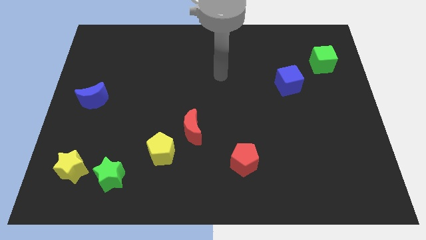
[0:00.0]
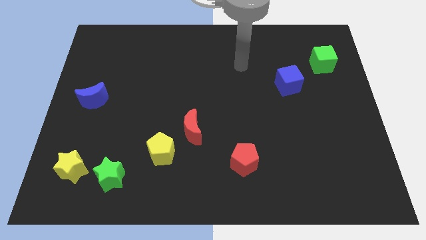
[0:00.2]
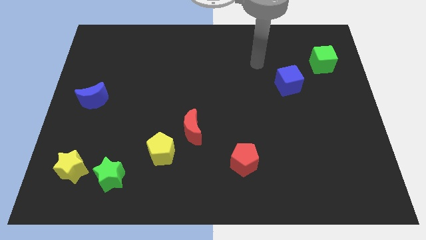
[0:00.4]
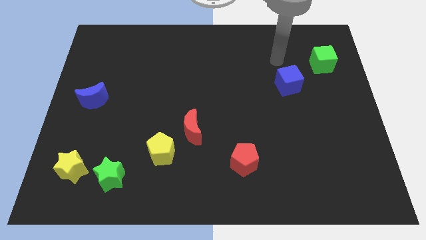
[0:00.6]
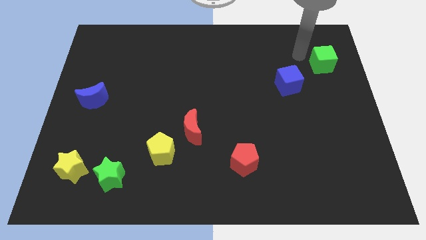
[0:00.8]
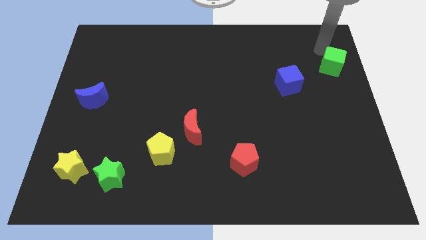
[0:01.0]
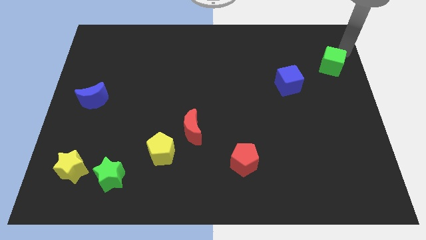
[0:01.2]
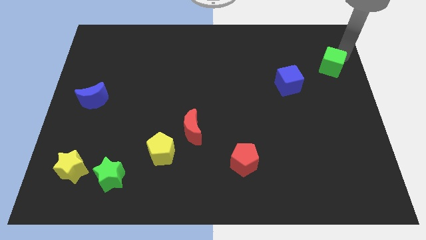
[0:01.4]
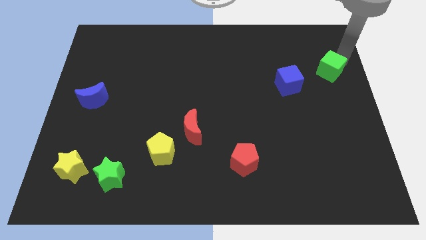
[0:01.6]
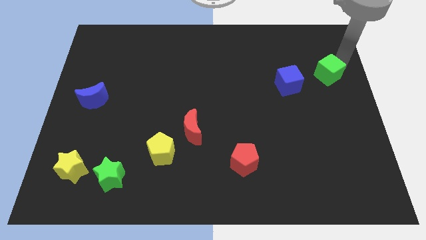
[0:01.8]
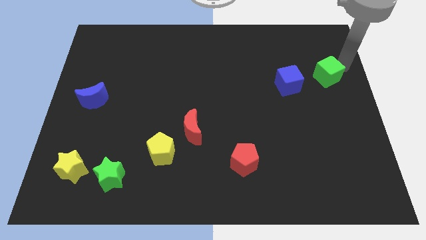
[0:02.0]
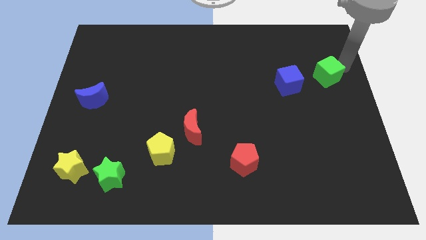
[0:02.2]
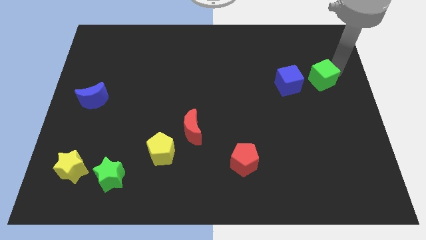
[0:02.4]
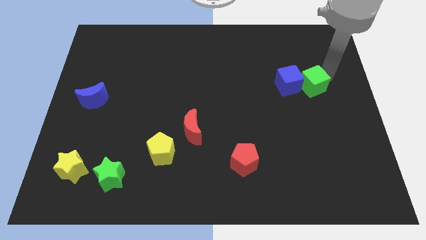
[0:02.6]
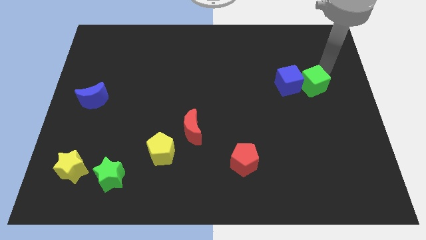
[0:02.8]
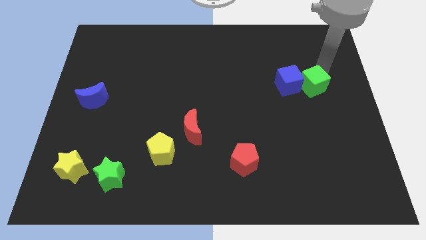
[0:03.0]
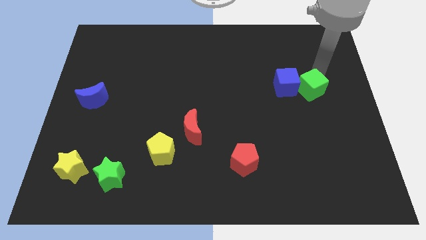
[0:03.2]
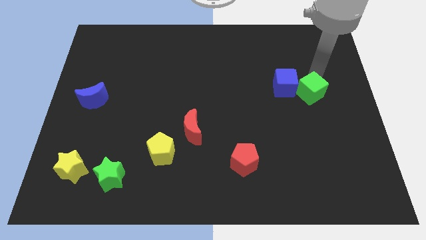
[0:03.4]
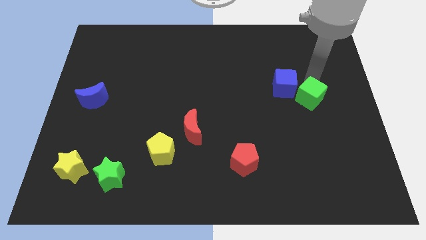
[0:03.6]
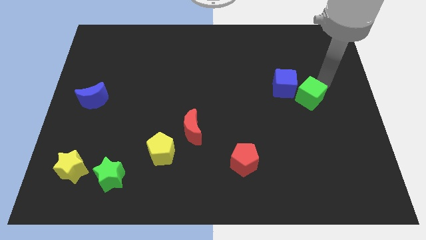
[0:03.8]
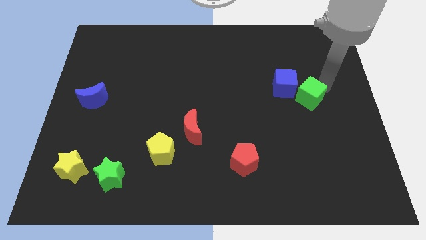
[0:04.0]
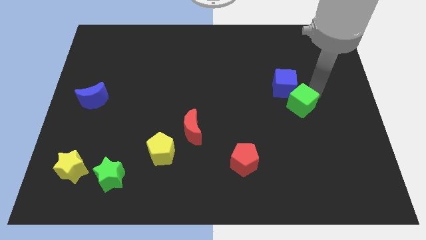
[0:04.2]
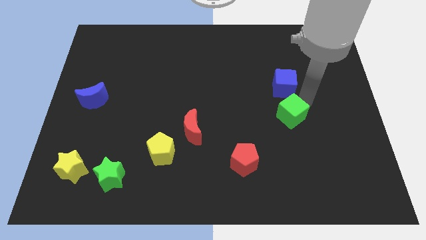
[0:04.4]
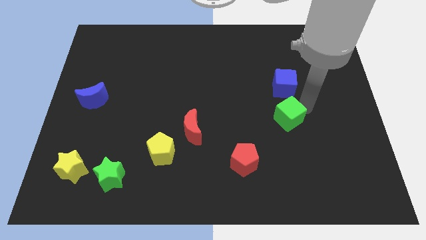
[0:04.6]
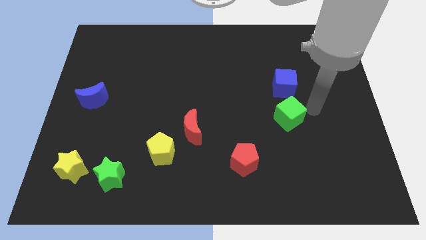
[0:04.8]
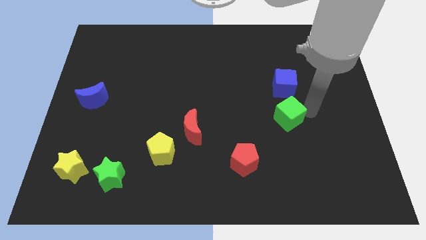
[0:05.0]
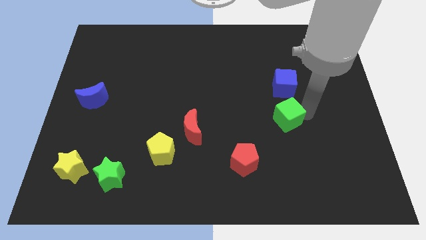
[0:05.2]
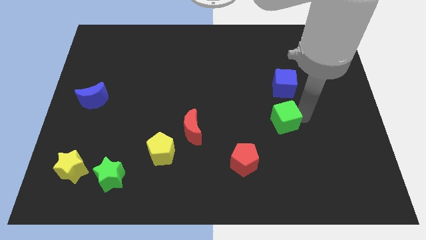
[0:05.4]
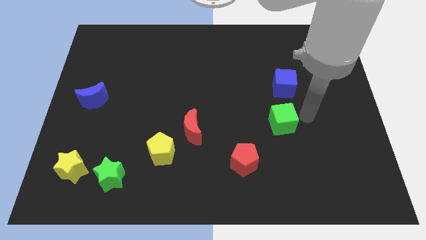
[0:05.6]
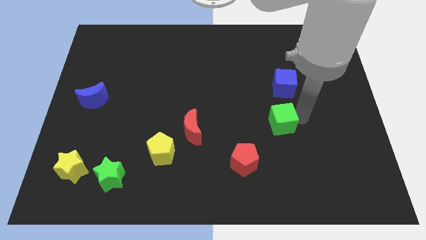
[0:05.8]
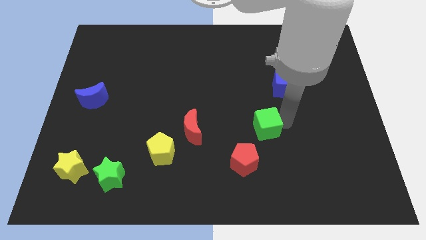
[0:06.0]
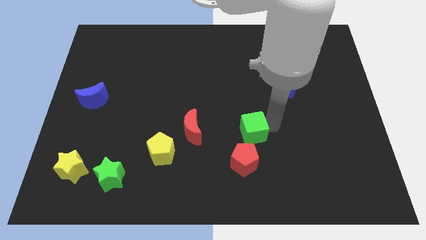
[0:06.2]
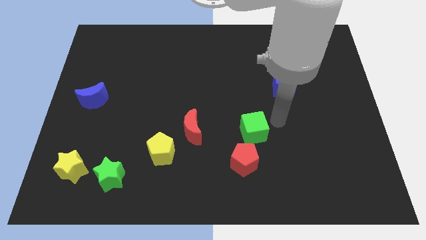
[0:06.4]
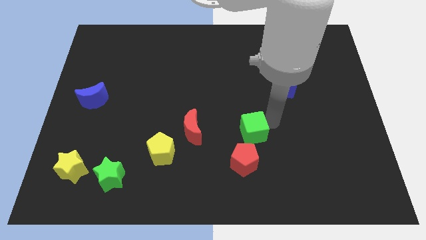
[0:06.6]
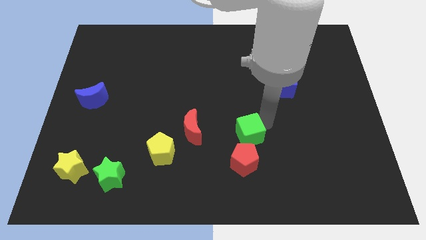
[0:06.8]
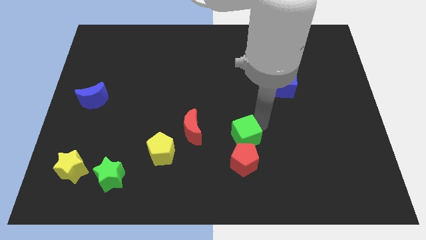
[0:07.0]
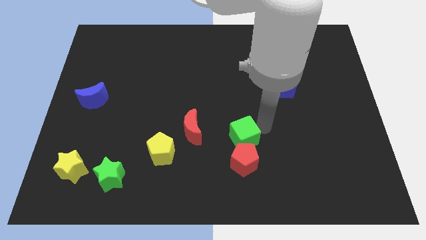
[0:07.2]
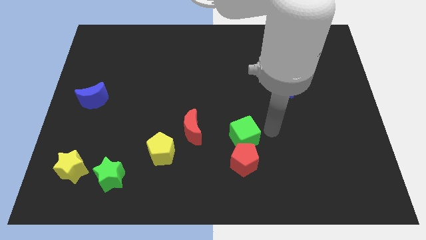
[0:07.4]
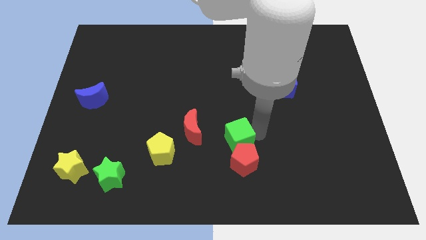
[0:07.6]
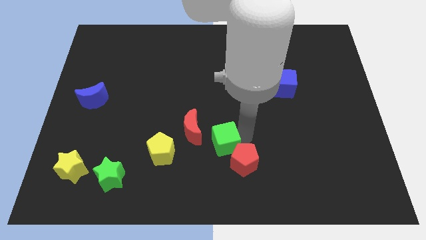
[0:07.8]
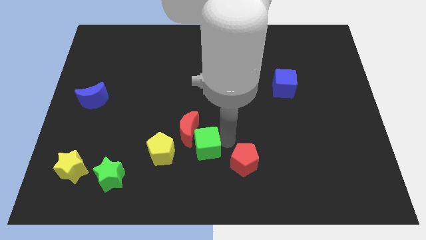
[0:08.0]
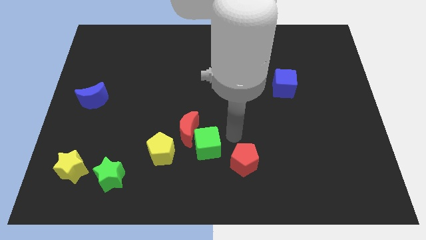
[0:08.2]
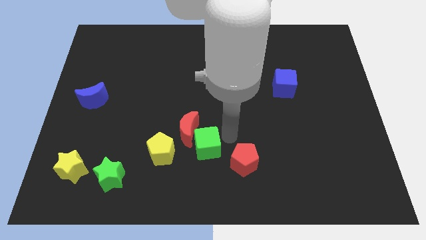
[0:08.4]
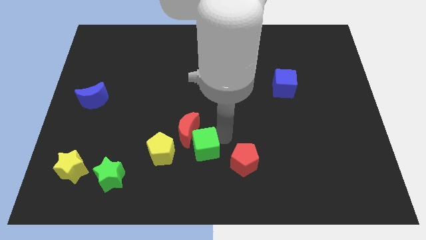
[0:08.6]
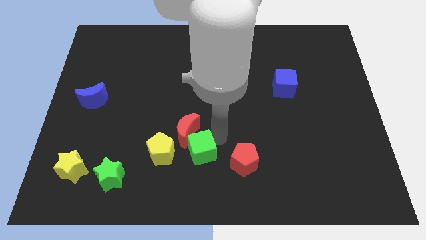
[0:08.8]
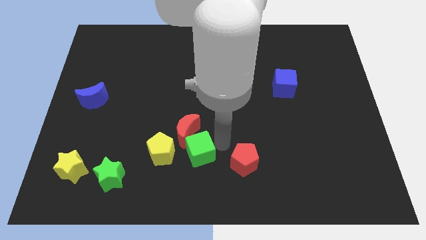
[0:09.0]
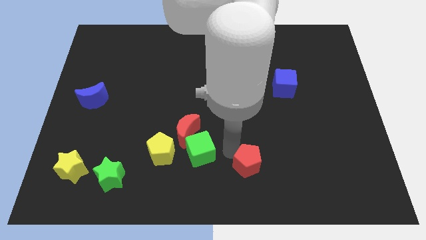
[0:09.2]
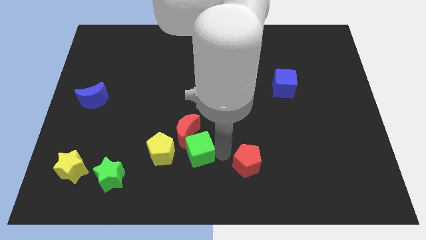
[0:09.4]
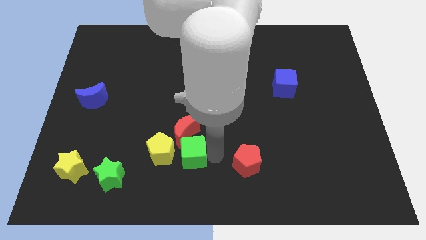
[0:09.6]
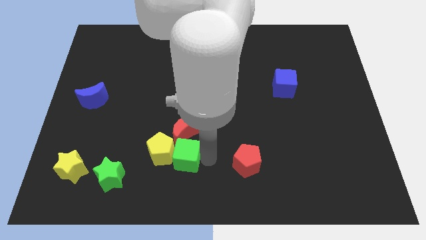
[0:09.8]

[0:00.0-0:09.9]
push the green cube close to the yellow pentagon

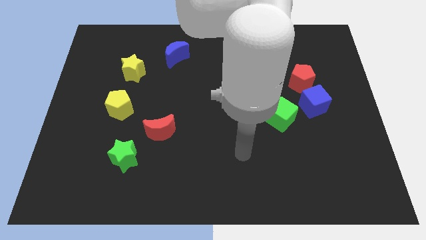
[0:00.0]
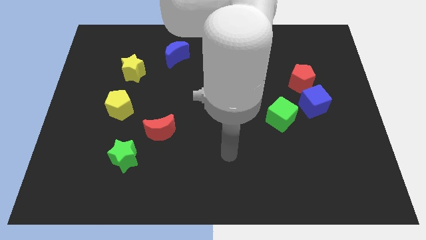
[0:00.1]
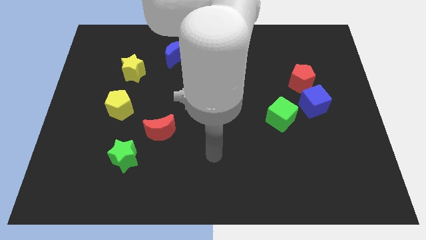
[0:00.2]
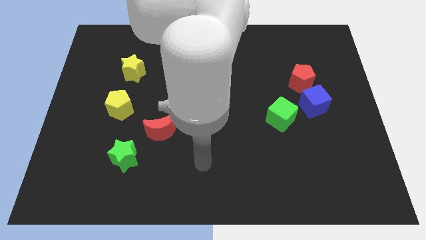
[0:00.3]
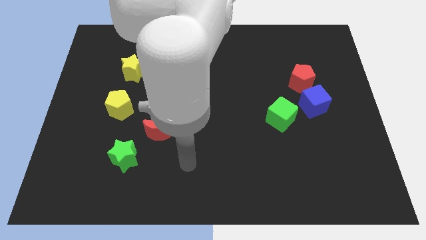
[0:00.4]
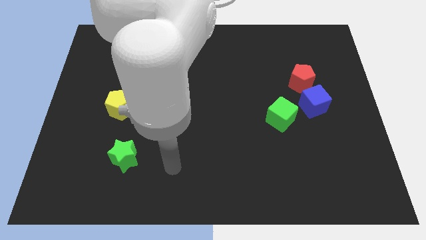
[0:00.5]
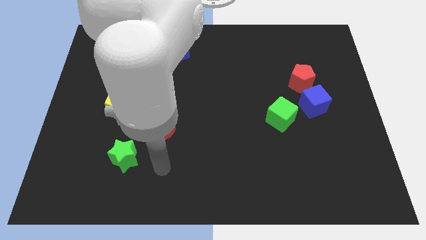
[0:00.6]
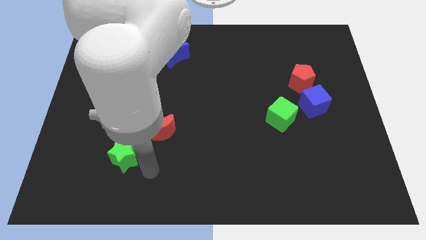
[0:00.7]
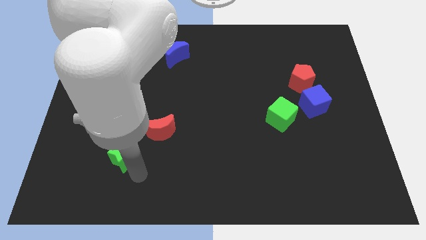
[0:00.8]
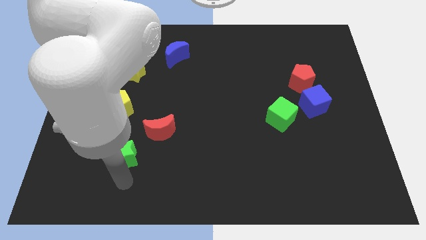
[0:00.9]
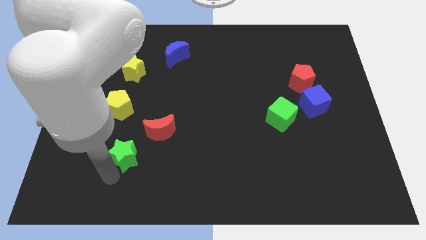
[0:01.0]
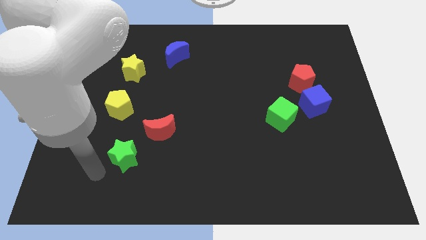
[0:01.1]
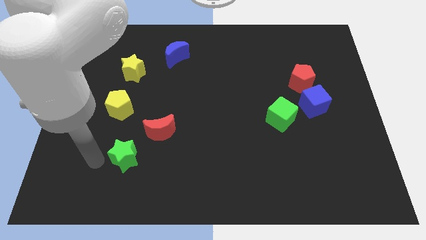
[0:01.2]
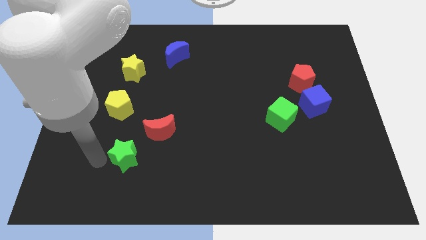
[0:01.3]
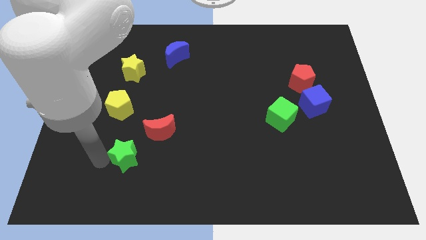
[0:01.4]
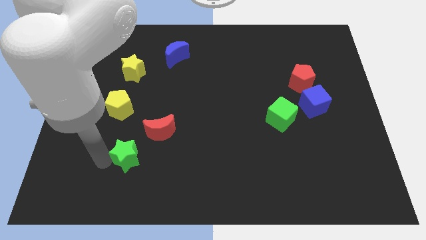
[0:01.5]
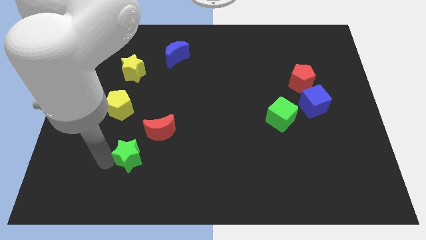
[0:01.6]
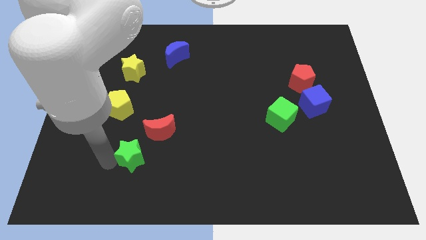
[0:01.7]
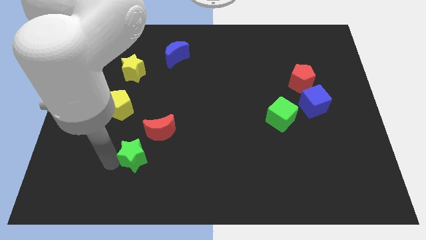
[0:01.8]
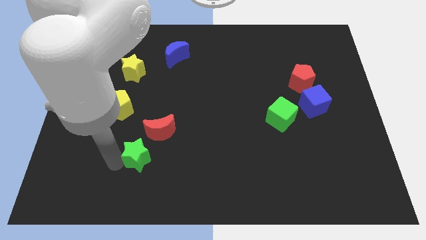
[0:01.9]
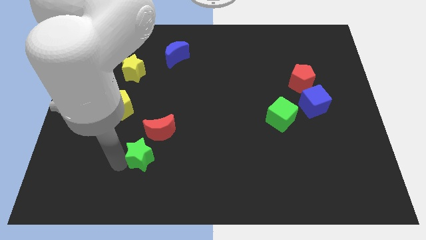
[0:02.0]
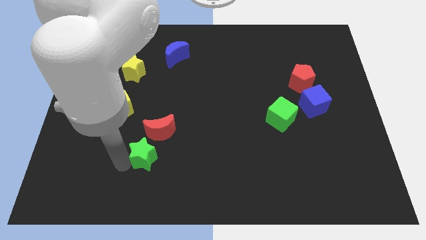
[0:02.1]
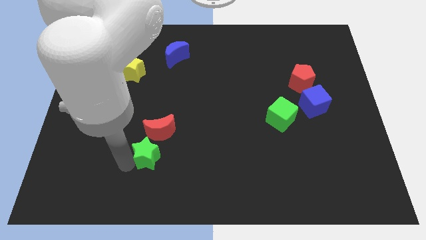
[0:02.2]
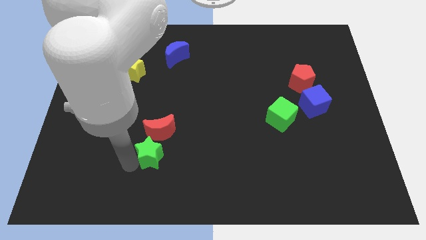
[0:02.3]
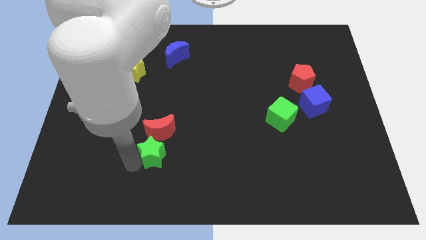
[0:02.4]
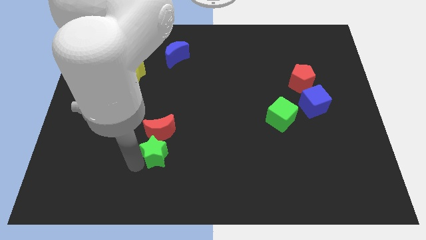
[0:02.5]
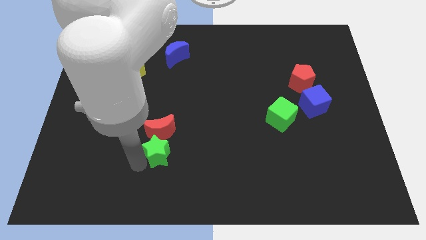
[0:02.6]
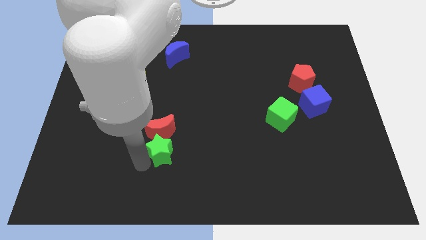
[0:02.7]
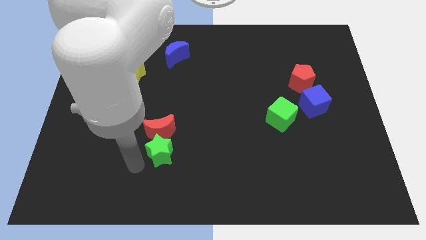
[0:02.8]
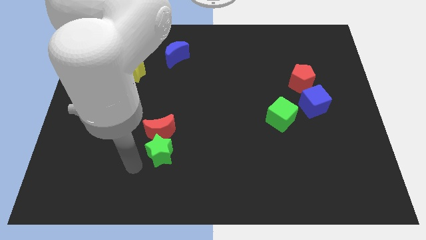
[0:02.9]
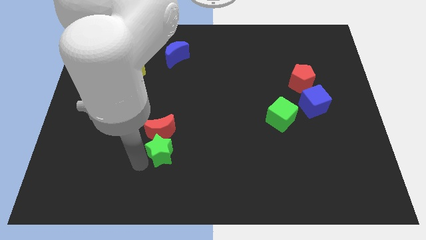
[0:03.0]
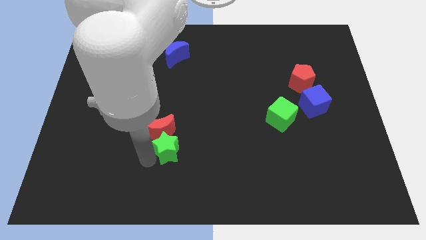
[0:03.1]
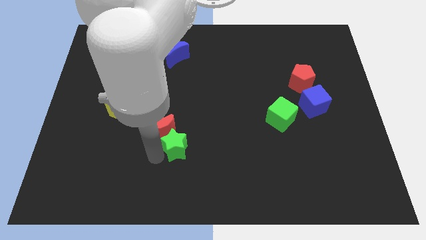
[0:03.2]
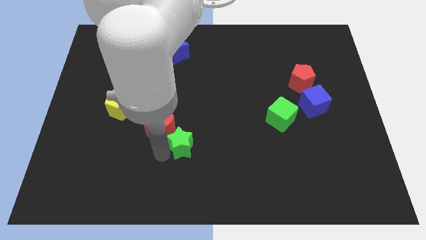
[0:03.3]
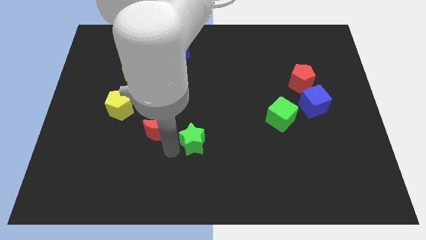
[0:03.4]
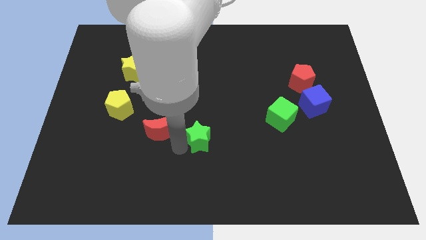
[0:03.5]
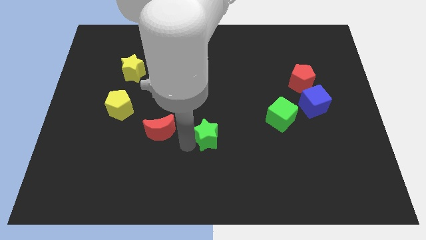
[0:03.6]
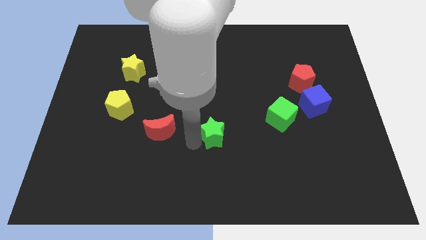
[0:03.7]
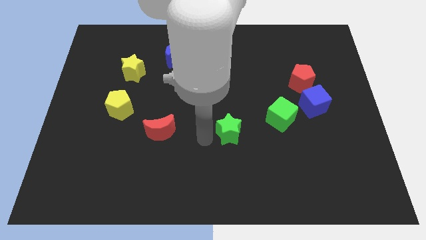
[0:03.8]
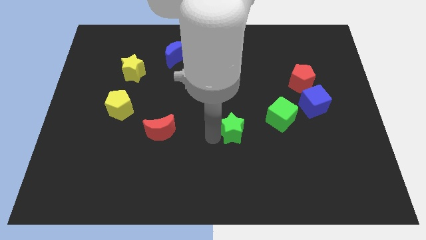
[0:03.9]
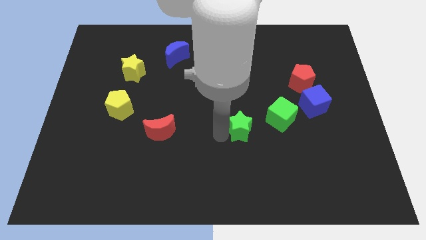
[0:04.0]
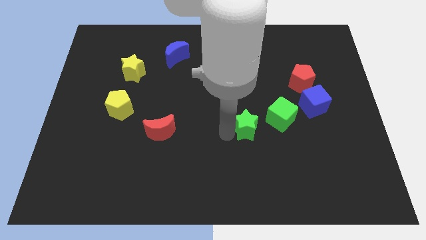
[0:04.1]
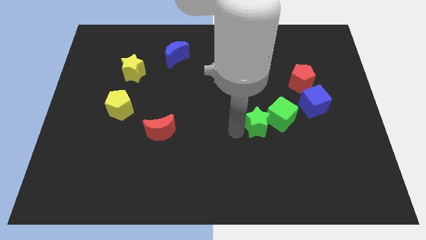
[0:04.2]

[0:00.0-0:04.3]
move the green star next to the green cube
